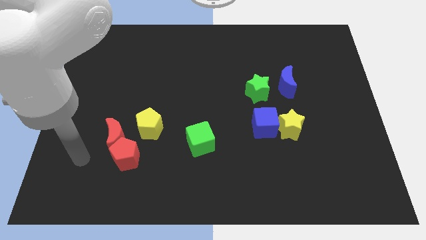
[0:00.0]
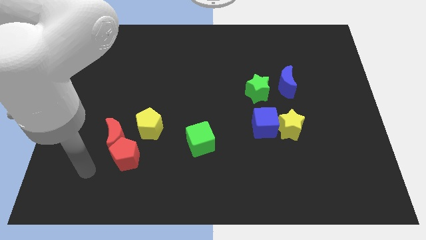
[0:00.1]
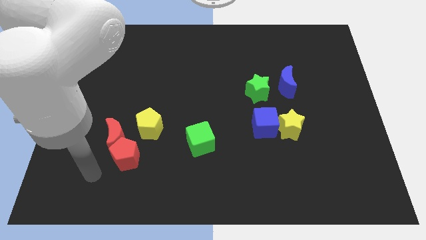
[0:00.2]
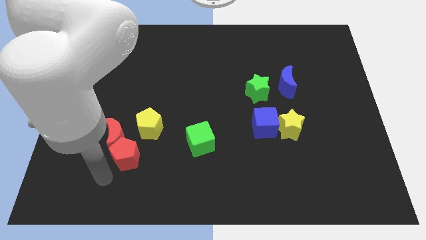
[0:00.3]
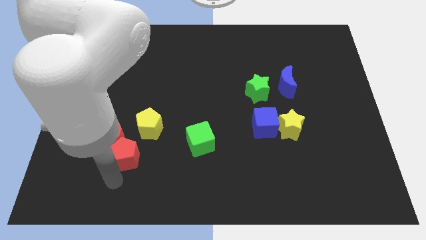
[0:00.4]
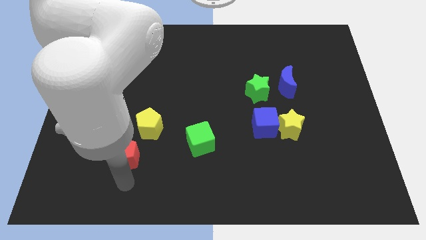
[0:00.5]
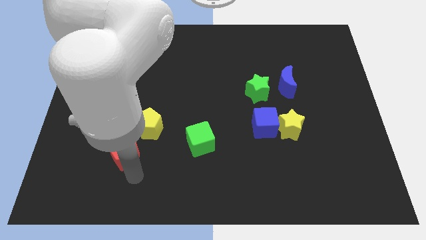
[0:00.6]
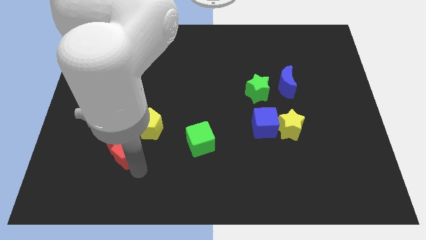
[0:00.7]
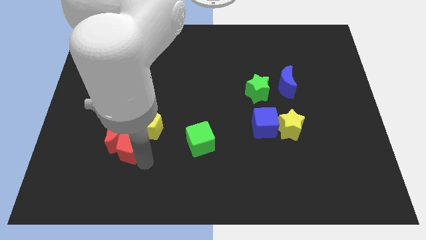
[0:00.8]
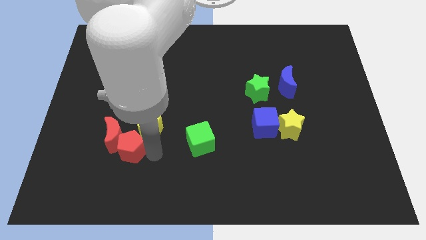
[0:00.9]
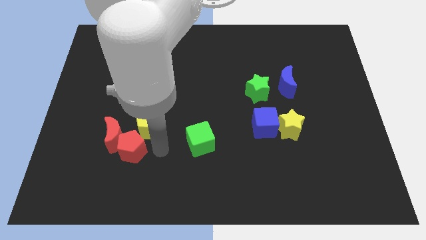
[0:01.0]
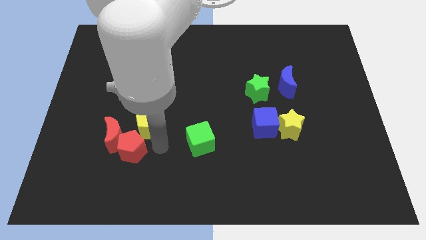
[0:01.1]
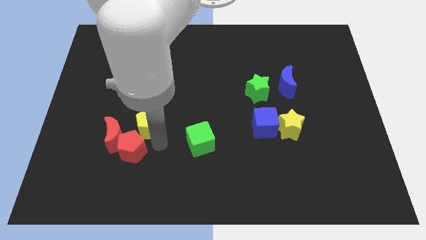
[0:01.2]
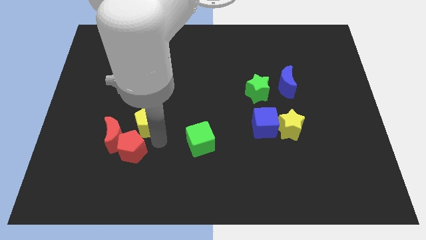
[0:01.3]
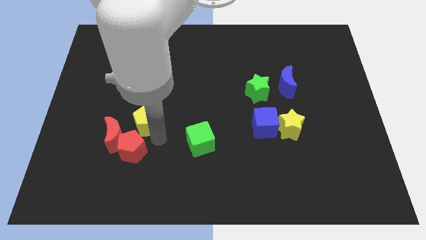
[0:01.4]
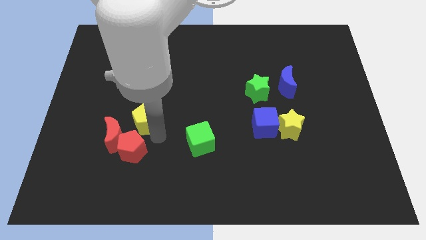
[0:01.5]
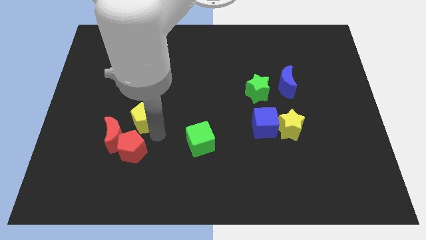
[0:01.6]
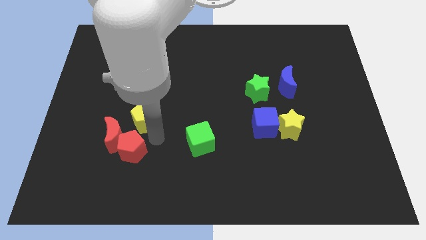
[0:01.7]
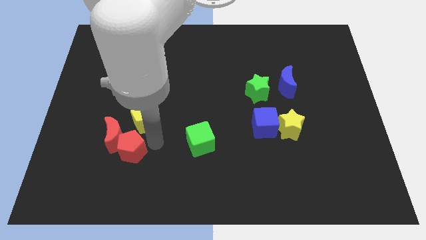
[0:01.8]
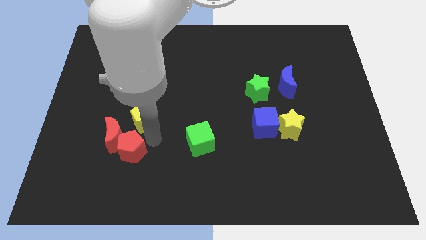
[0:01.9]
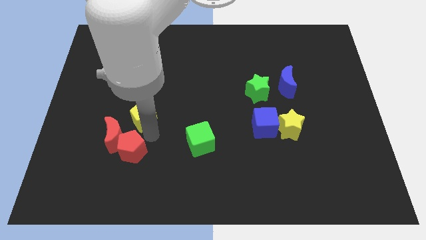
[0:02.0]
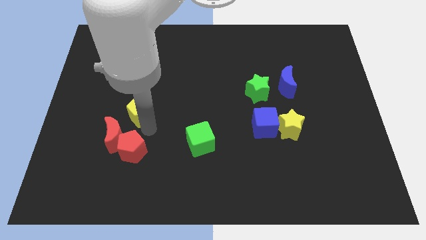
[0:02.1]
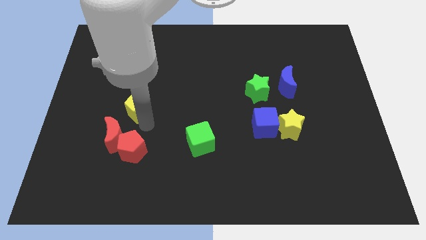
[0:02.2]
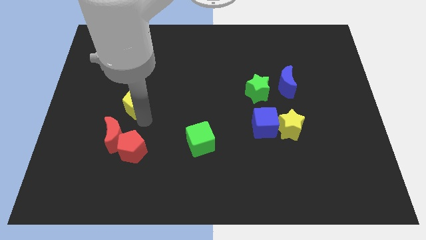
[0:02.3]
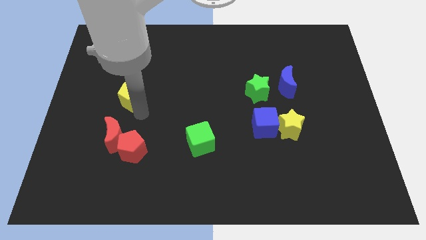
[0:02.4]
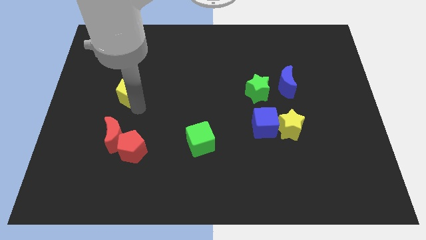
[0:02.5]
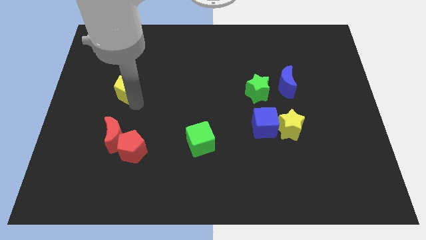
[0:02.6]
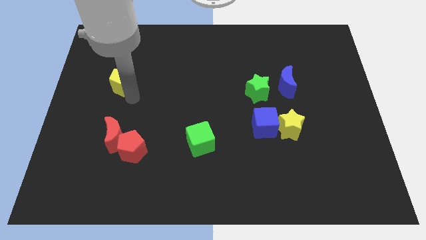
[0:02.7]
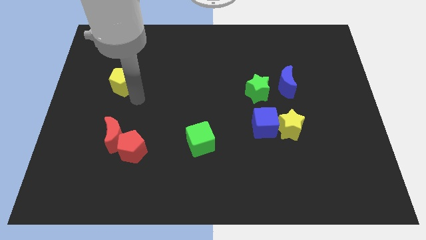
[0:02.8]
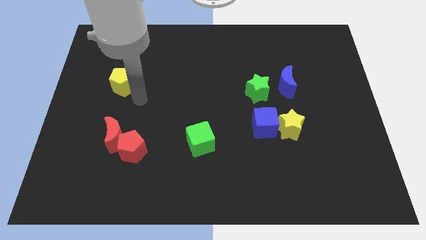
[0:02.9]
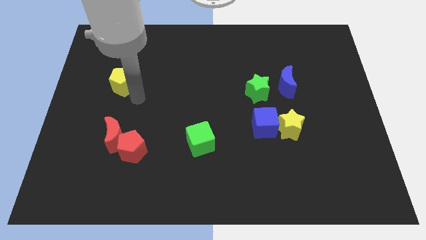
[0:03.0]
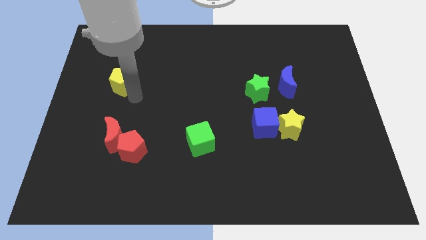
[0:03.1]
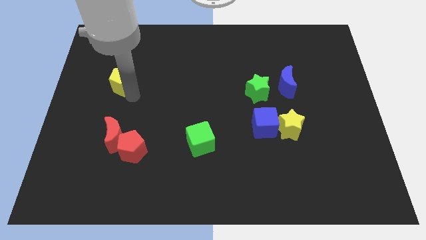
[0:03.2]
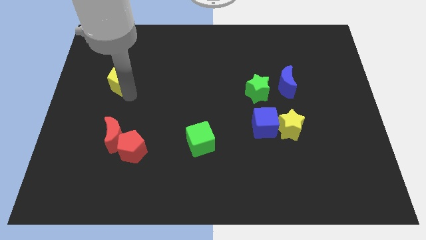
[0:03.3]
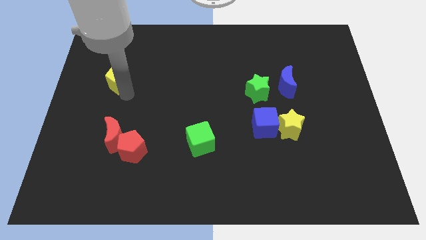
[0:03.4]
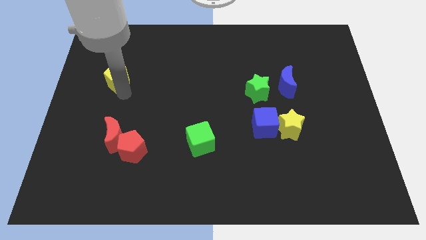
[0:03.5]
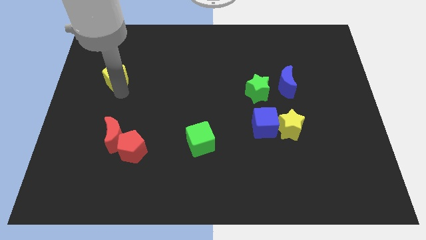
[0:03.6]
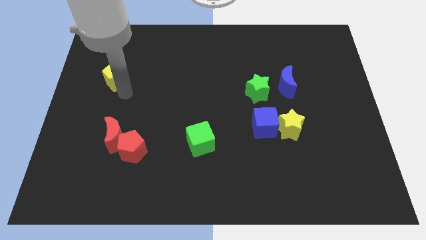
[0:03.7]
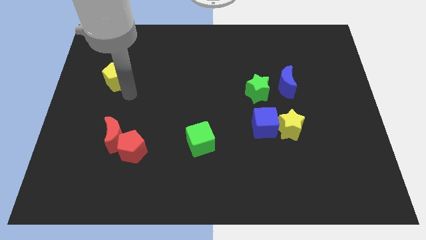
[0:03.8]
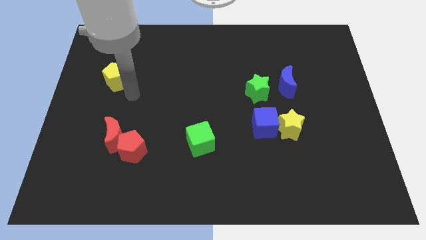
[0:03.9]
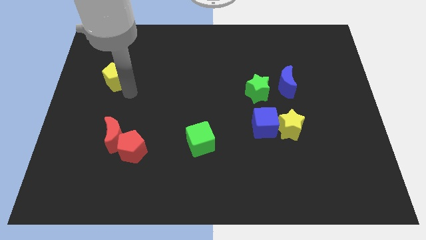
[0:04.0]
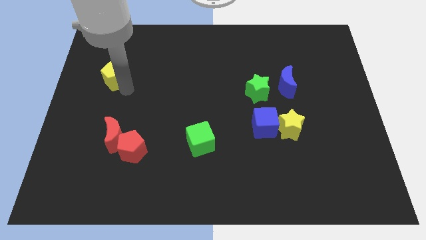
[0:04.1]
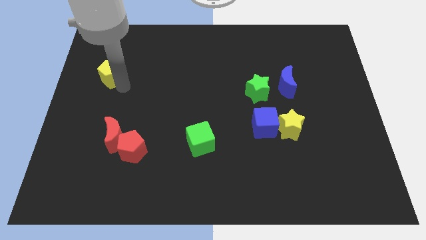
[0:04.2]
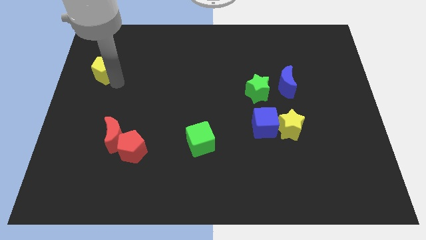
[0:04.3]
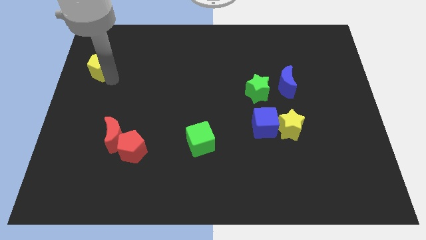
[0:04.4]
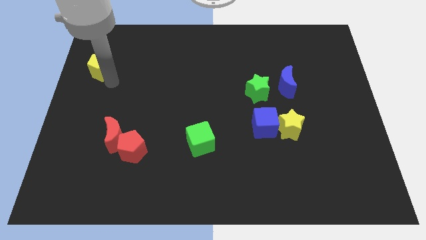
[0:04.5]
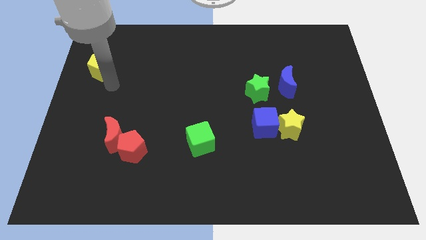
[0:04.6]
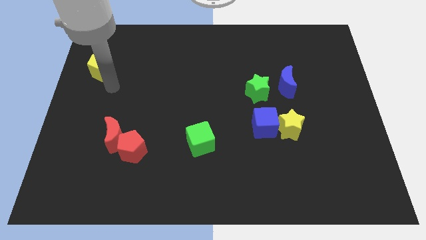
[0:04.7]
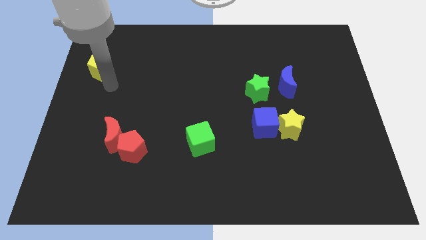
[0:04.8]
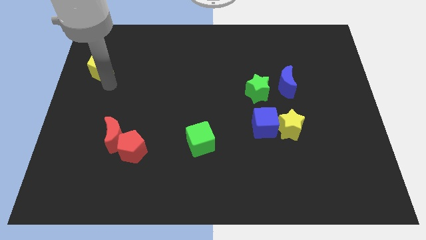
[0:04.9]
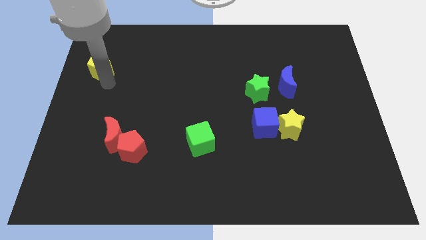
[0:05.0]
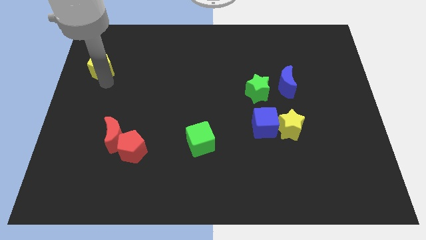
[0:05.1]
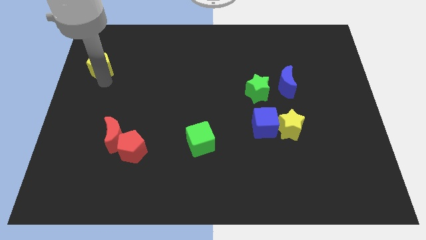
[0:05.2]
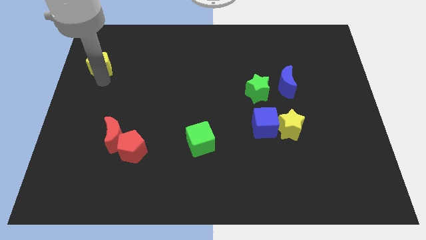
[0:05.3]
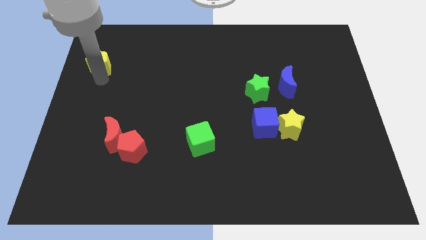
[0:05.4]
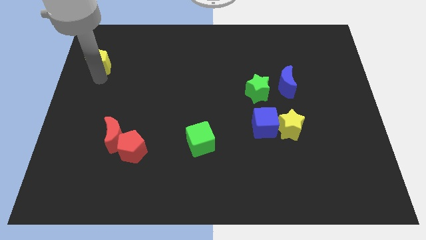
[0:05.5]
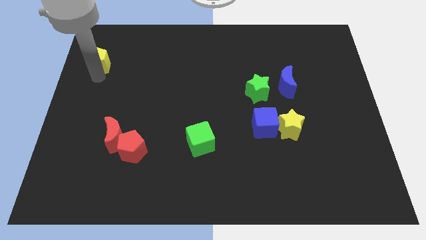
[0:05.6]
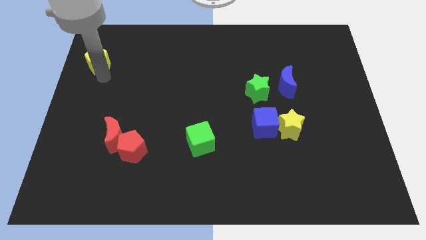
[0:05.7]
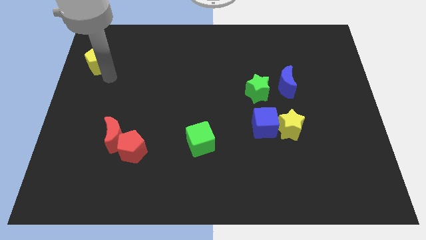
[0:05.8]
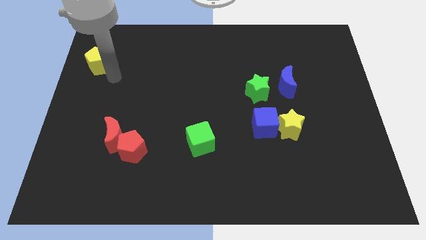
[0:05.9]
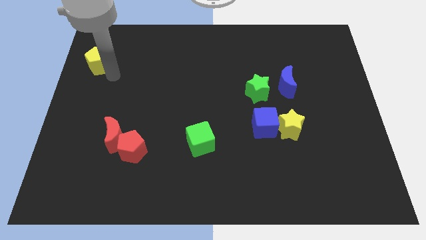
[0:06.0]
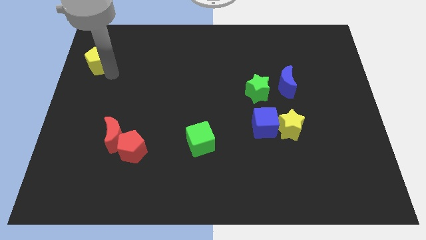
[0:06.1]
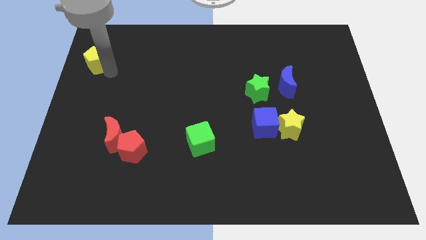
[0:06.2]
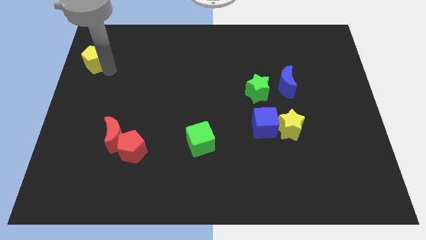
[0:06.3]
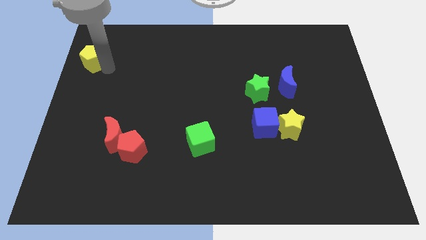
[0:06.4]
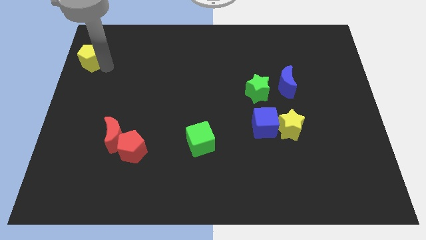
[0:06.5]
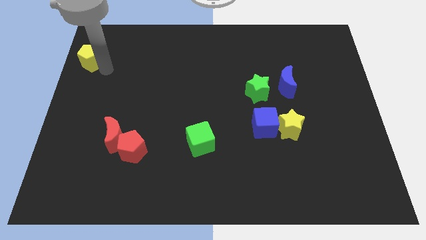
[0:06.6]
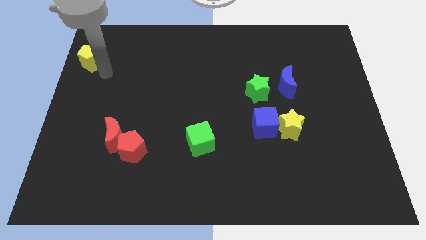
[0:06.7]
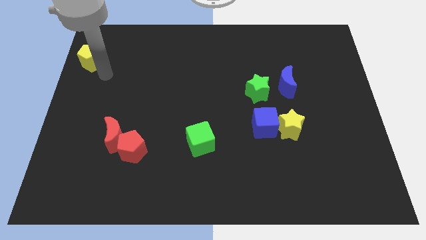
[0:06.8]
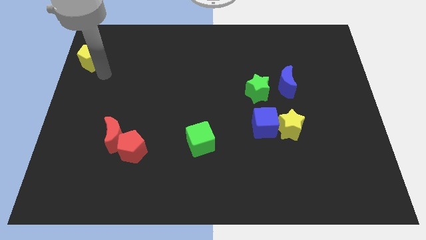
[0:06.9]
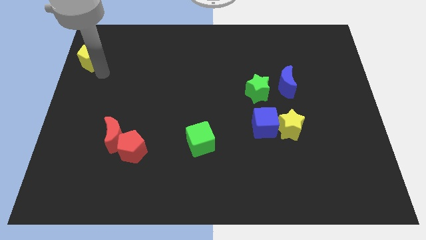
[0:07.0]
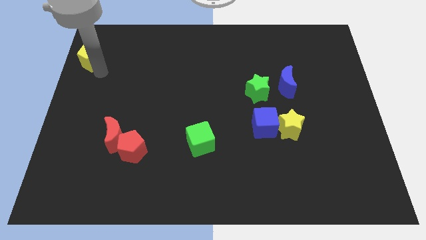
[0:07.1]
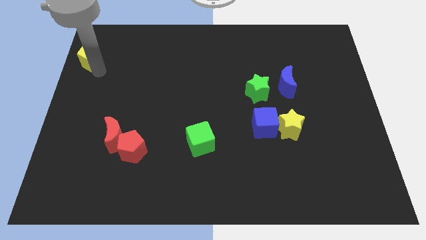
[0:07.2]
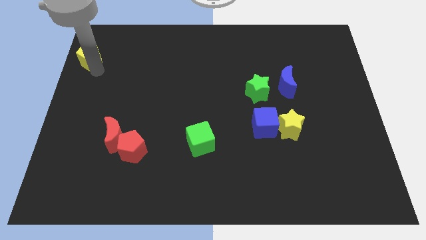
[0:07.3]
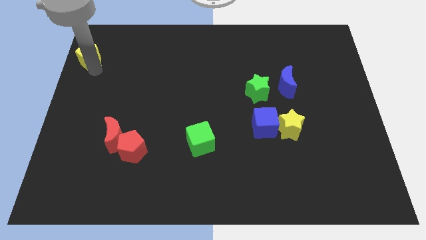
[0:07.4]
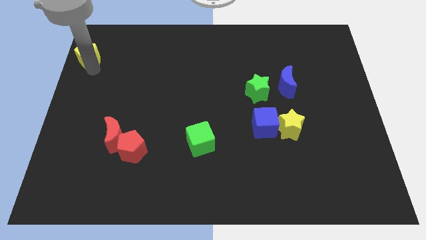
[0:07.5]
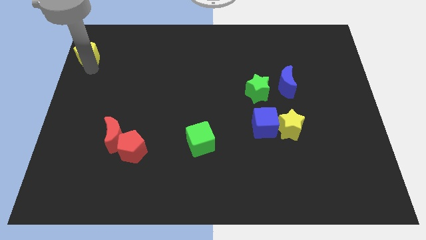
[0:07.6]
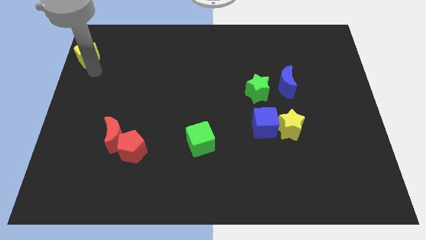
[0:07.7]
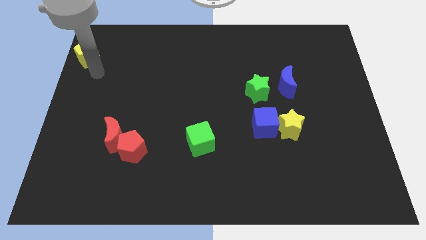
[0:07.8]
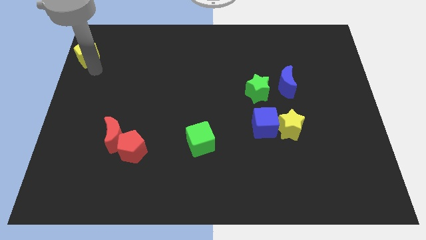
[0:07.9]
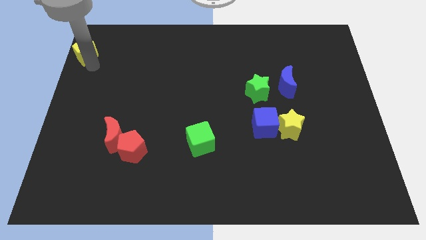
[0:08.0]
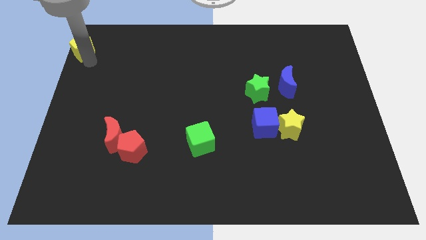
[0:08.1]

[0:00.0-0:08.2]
put the yellow pentagon to the top left corner
